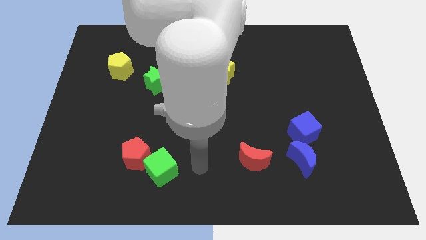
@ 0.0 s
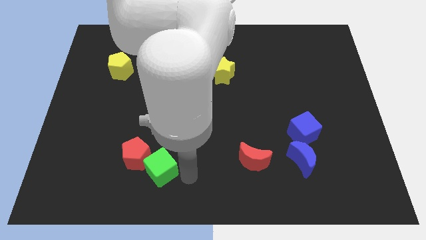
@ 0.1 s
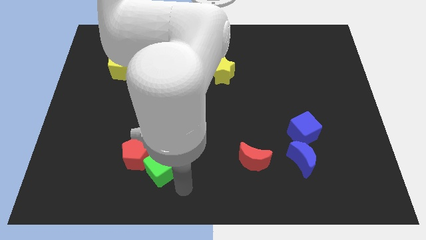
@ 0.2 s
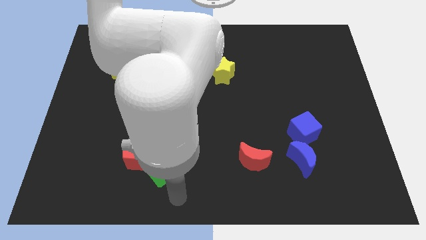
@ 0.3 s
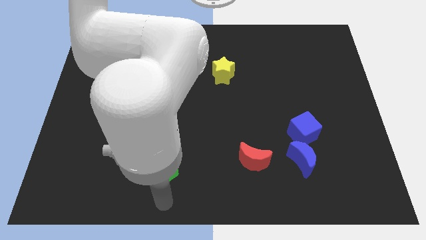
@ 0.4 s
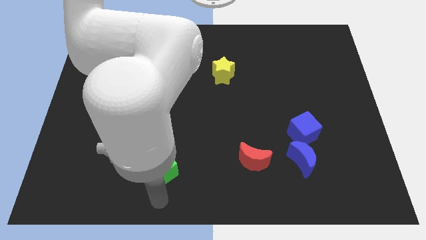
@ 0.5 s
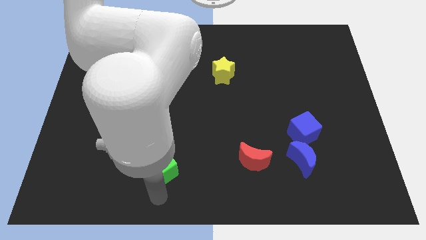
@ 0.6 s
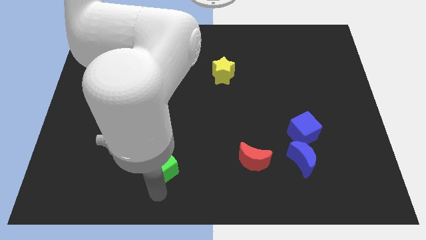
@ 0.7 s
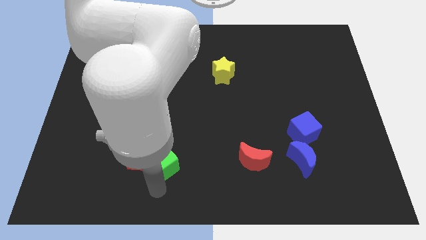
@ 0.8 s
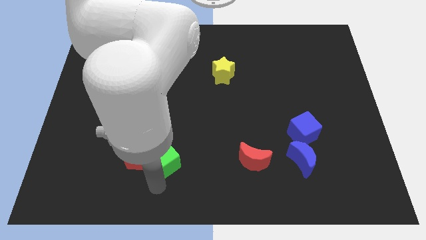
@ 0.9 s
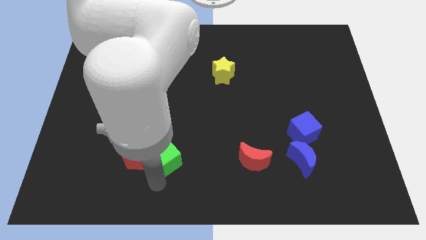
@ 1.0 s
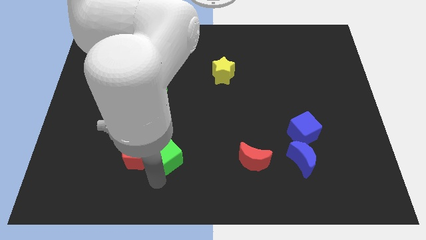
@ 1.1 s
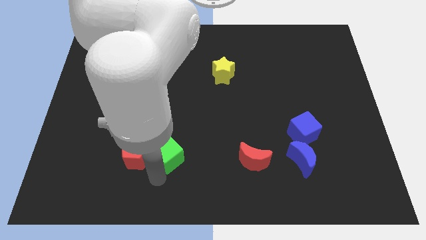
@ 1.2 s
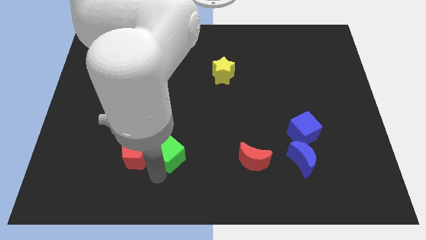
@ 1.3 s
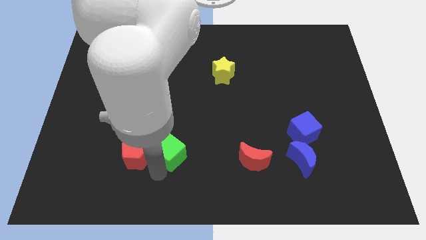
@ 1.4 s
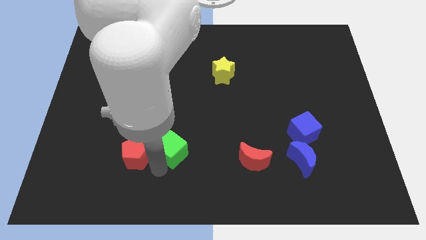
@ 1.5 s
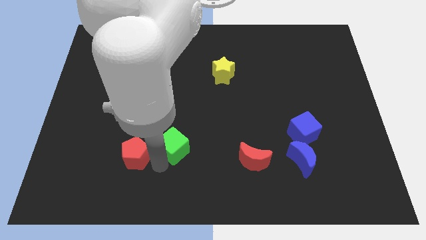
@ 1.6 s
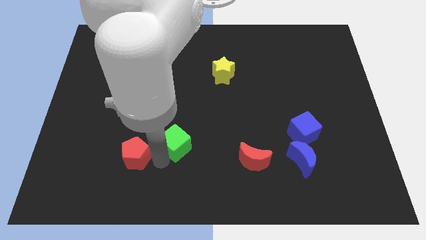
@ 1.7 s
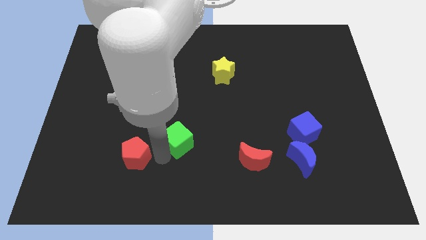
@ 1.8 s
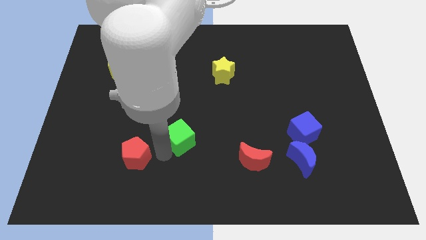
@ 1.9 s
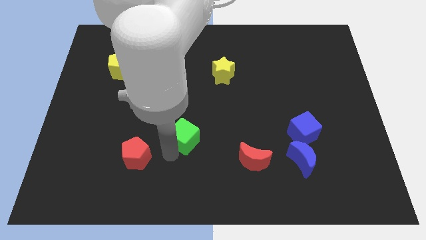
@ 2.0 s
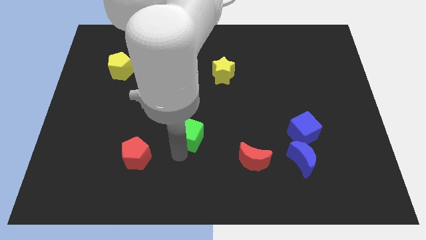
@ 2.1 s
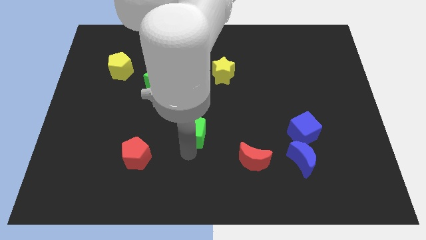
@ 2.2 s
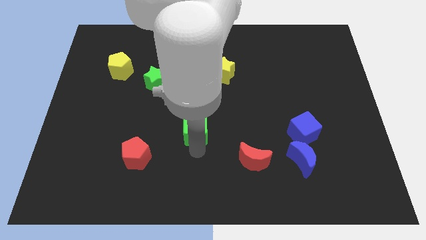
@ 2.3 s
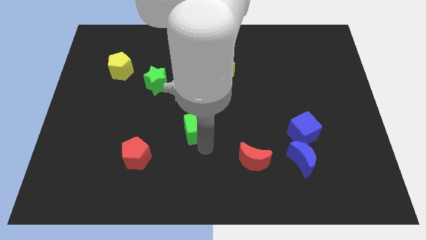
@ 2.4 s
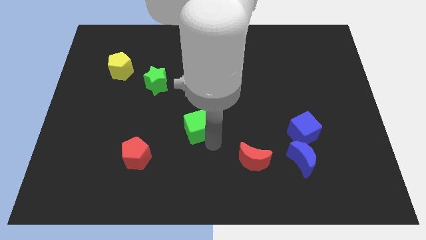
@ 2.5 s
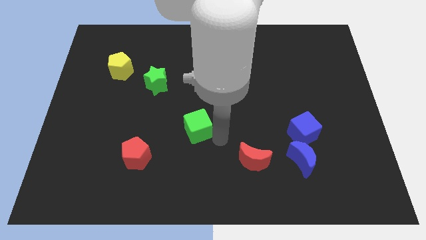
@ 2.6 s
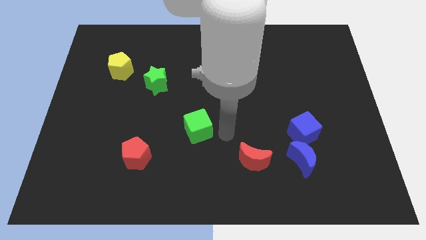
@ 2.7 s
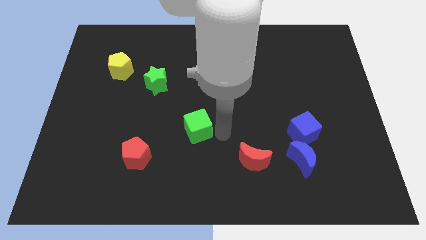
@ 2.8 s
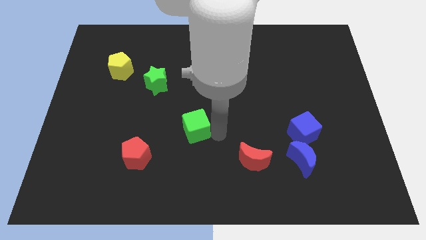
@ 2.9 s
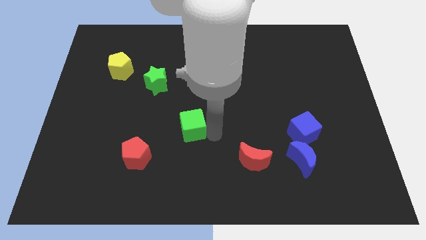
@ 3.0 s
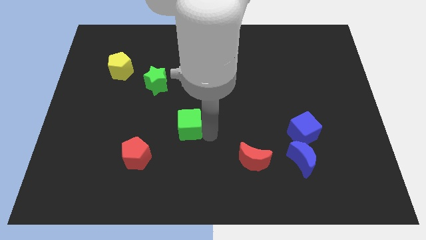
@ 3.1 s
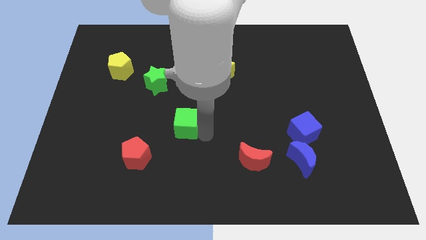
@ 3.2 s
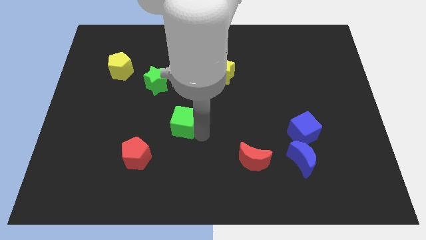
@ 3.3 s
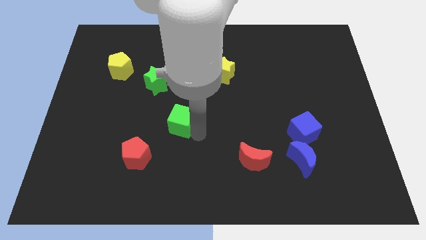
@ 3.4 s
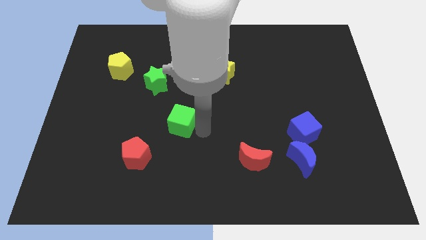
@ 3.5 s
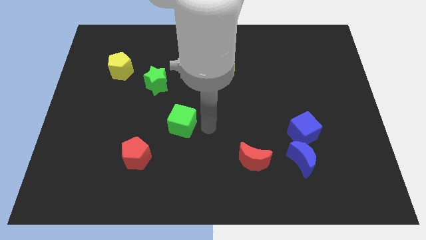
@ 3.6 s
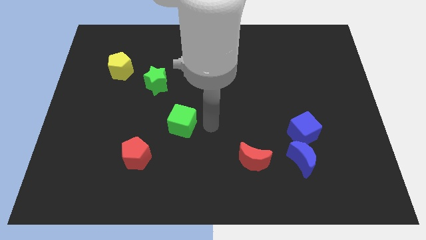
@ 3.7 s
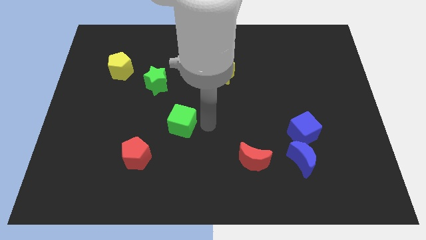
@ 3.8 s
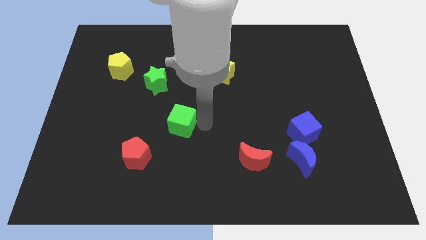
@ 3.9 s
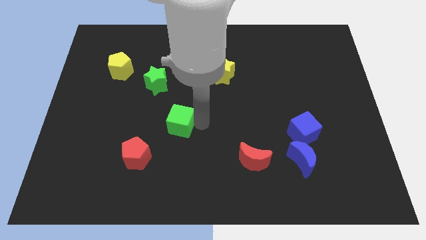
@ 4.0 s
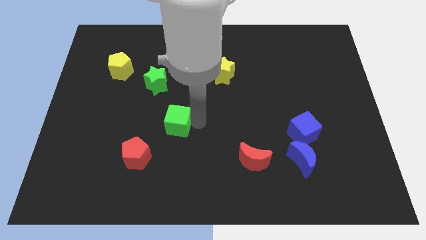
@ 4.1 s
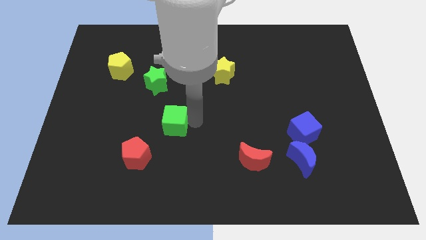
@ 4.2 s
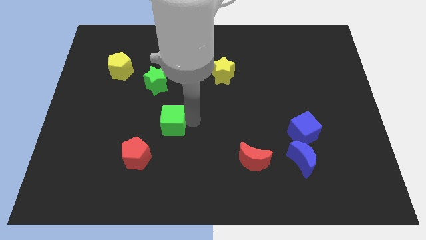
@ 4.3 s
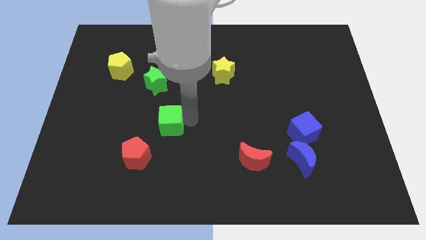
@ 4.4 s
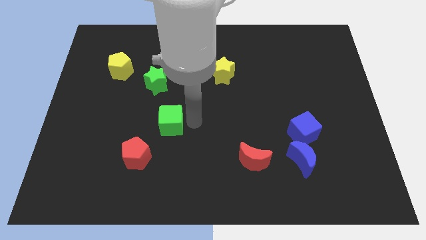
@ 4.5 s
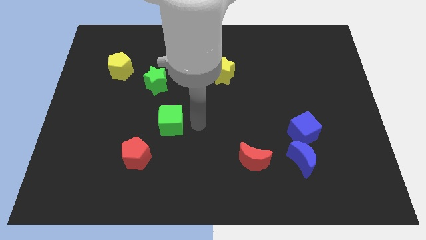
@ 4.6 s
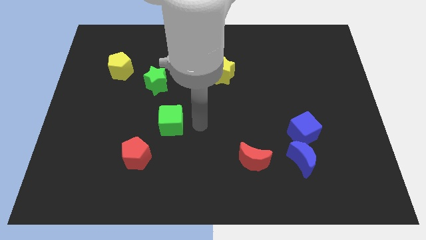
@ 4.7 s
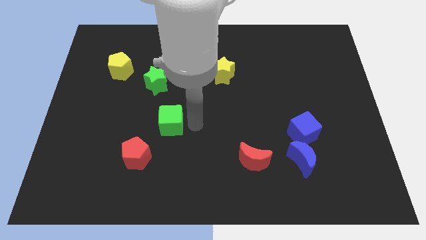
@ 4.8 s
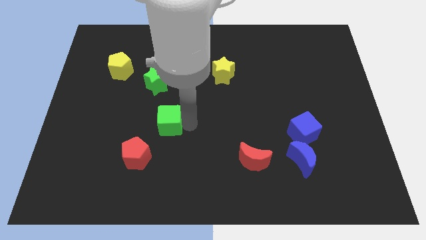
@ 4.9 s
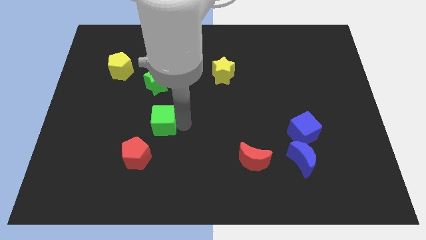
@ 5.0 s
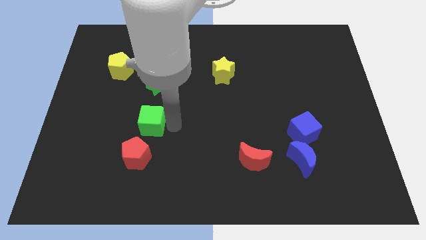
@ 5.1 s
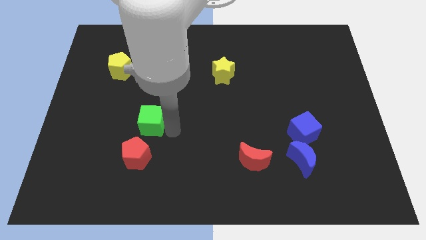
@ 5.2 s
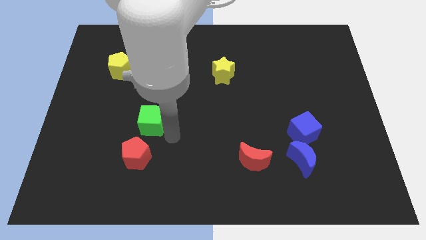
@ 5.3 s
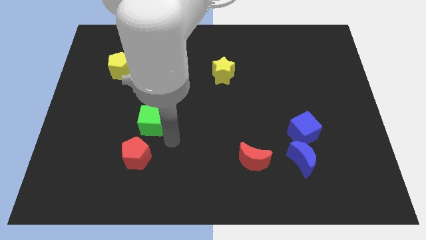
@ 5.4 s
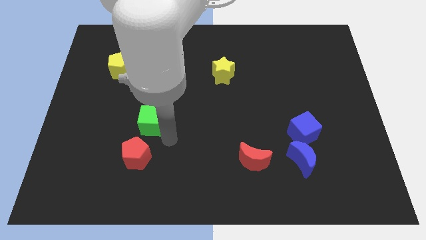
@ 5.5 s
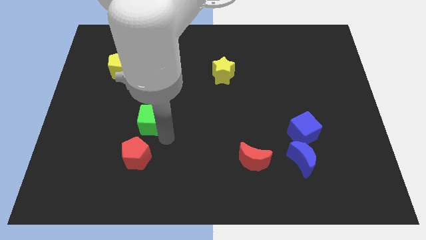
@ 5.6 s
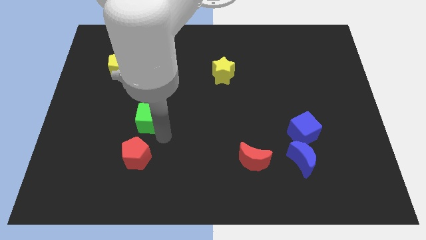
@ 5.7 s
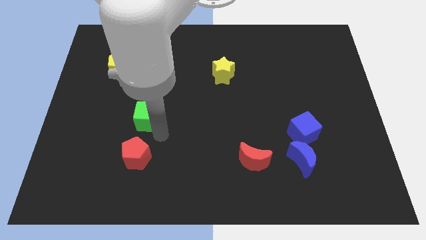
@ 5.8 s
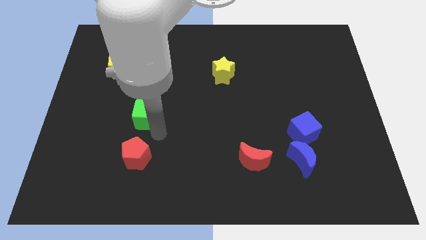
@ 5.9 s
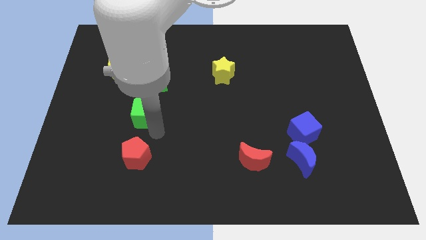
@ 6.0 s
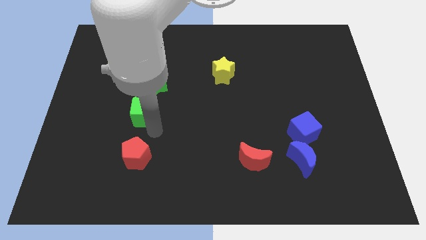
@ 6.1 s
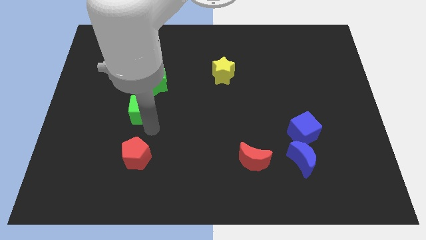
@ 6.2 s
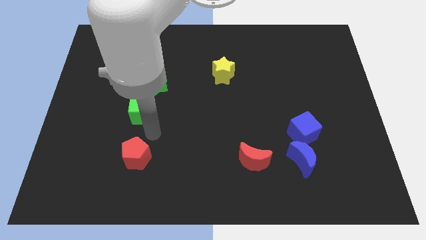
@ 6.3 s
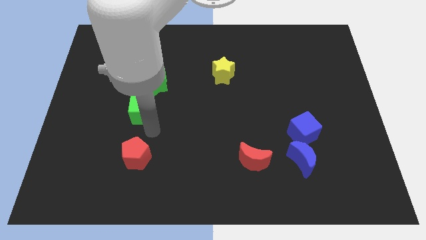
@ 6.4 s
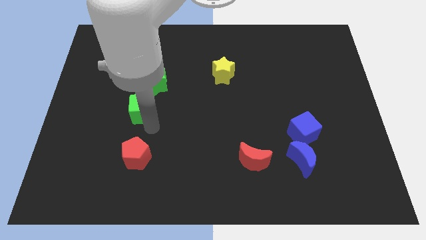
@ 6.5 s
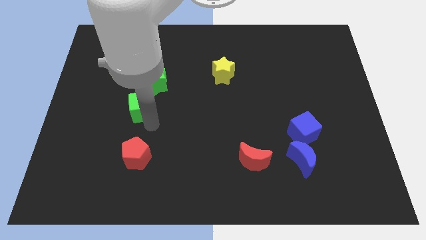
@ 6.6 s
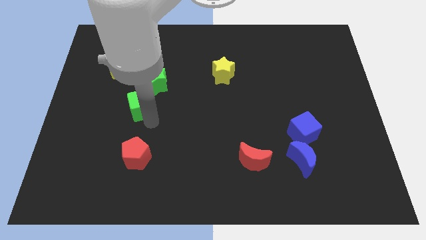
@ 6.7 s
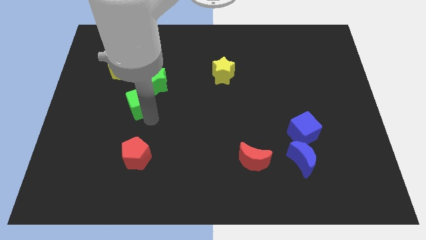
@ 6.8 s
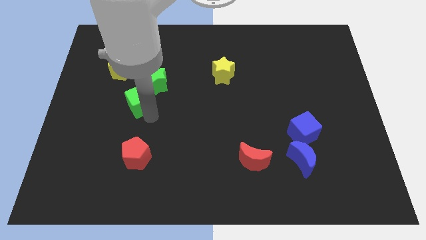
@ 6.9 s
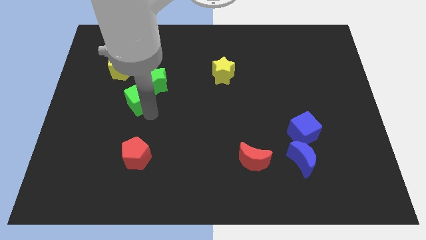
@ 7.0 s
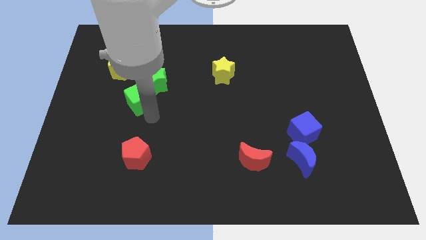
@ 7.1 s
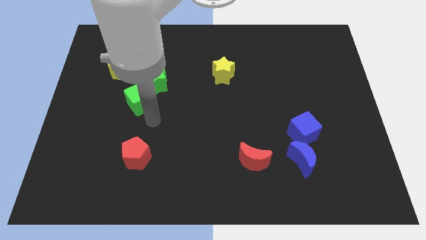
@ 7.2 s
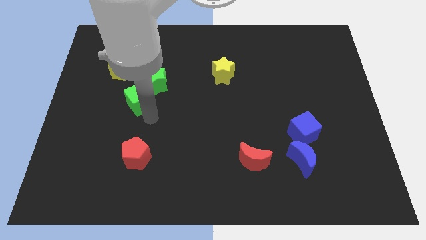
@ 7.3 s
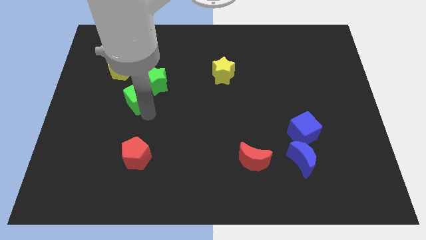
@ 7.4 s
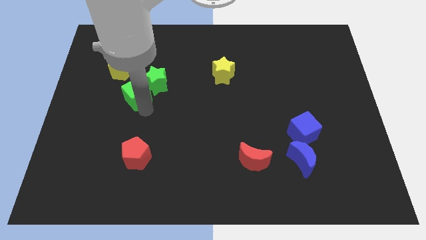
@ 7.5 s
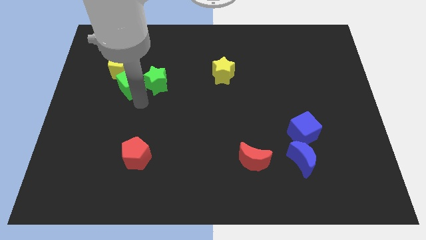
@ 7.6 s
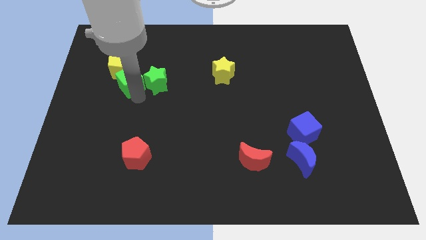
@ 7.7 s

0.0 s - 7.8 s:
slide the green cube close to the yellow pentagon
